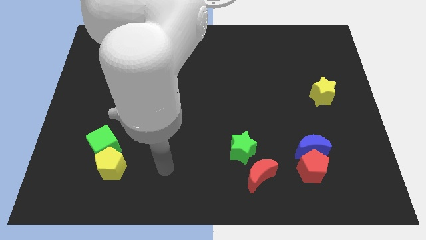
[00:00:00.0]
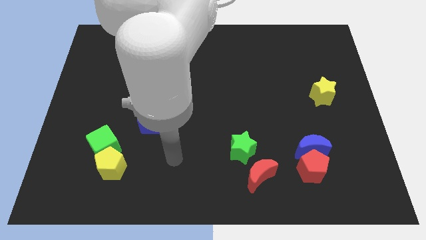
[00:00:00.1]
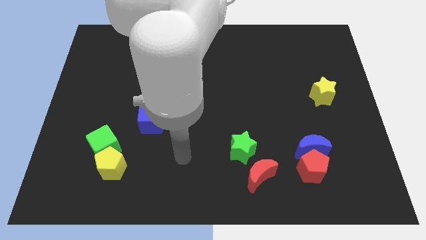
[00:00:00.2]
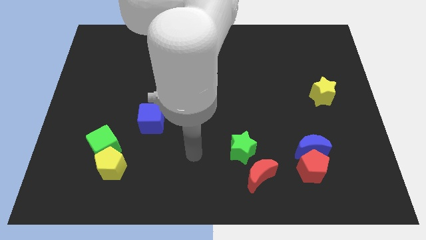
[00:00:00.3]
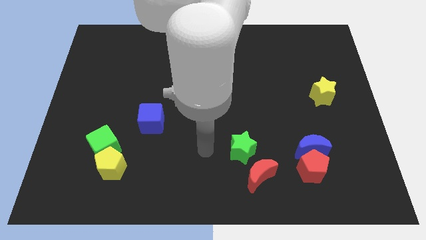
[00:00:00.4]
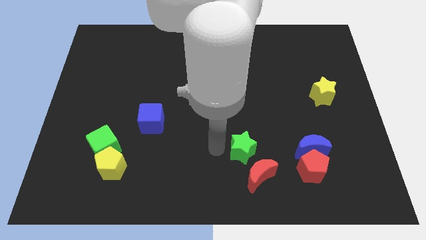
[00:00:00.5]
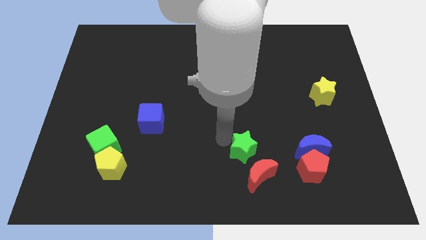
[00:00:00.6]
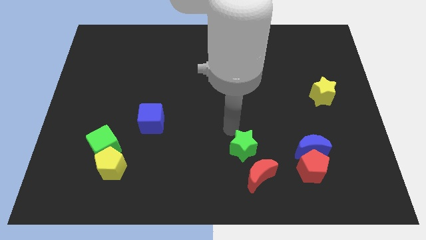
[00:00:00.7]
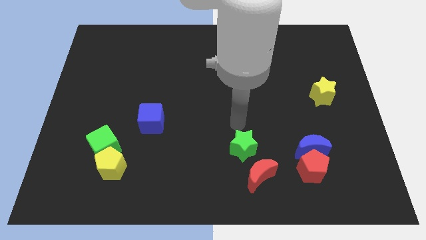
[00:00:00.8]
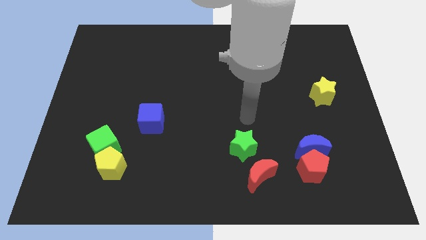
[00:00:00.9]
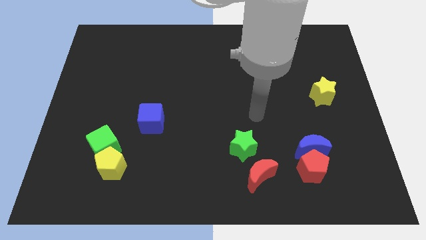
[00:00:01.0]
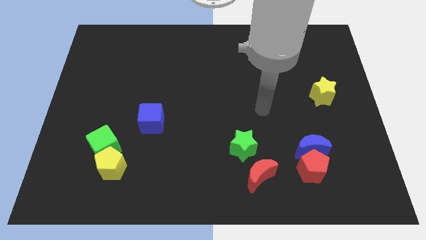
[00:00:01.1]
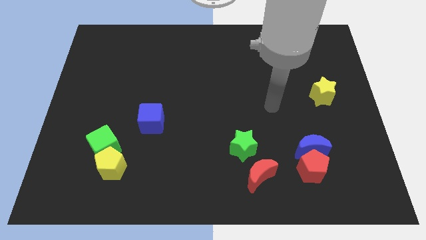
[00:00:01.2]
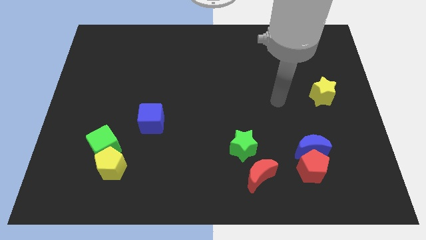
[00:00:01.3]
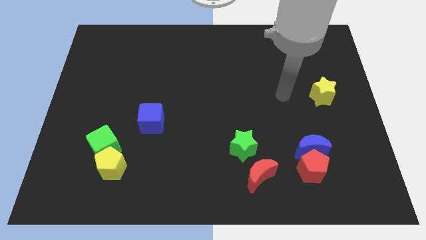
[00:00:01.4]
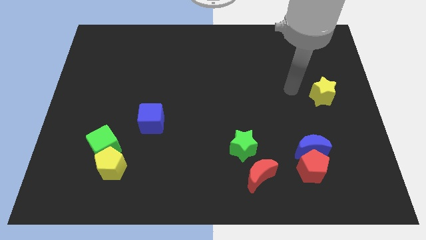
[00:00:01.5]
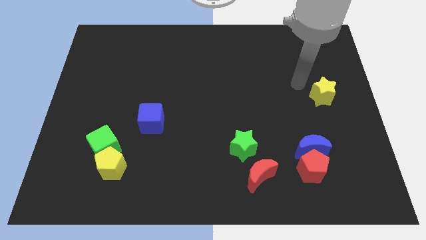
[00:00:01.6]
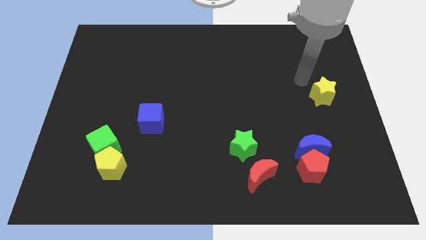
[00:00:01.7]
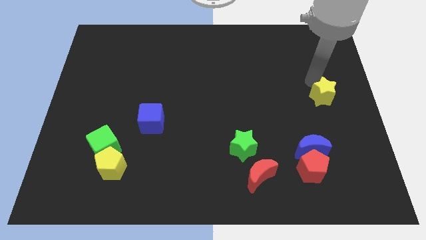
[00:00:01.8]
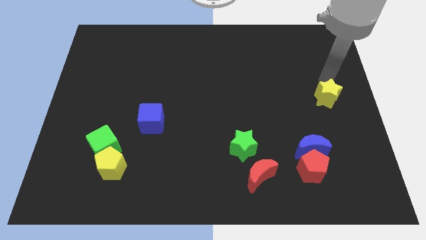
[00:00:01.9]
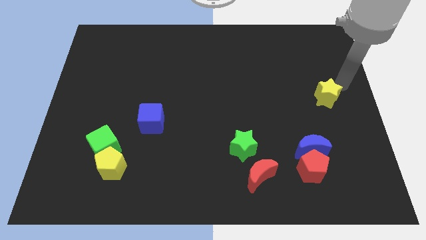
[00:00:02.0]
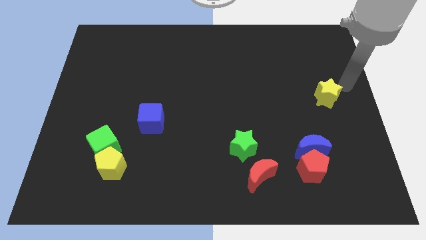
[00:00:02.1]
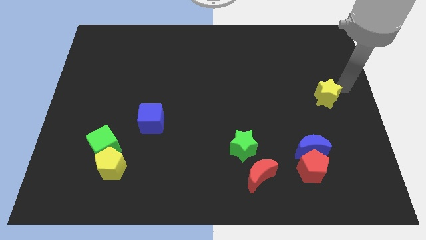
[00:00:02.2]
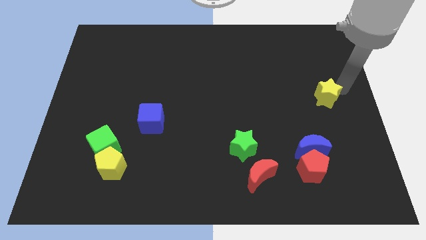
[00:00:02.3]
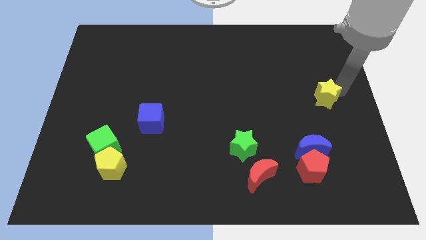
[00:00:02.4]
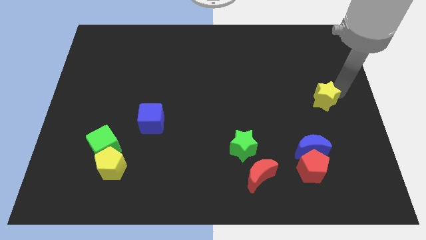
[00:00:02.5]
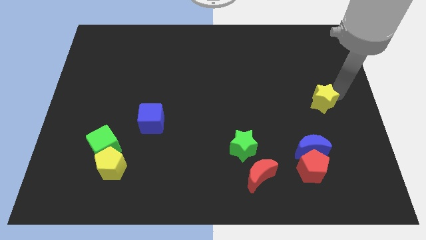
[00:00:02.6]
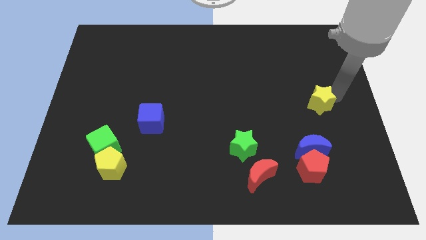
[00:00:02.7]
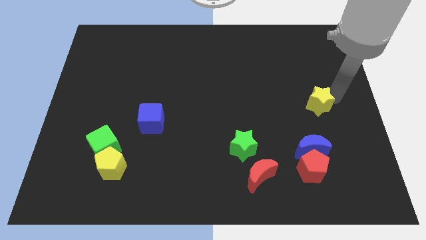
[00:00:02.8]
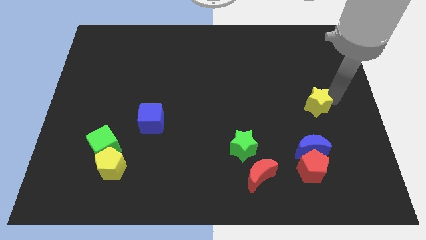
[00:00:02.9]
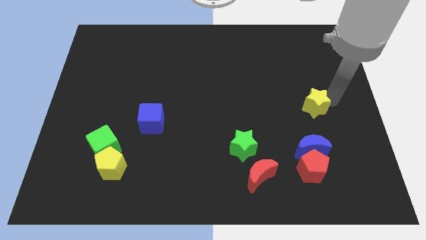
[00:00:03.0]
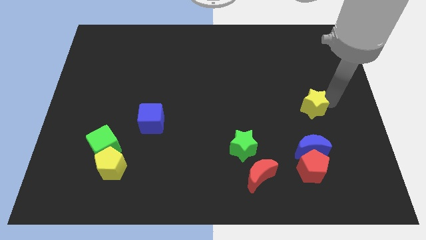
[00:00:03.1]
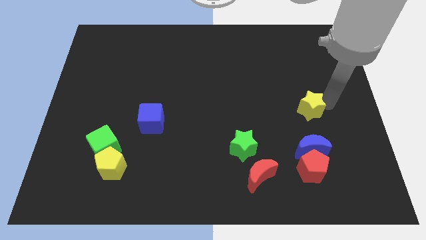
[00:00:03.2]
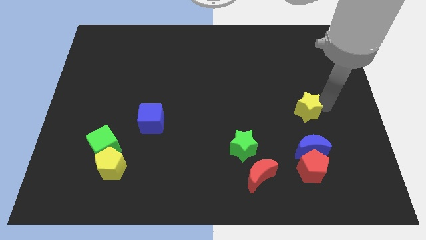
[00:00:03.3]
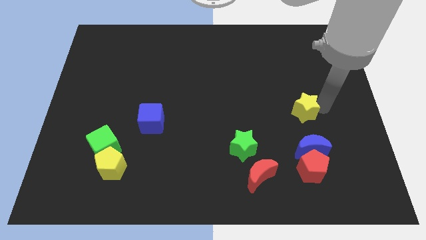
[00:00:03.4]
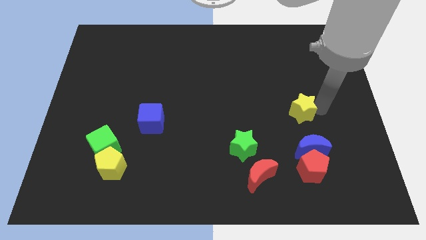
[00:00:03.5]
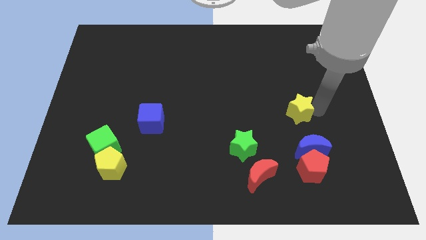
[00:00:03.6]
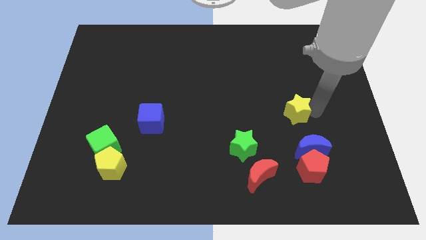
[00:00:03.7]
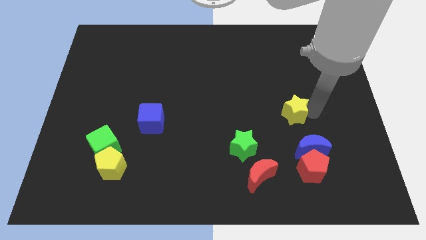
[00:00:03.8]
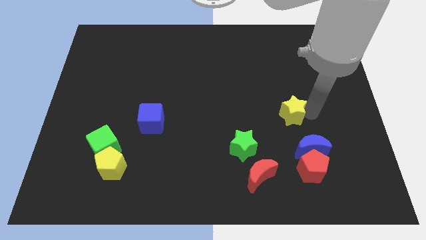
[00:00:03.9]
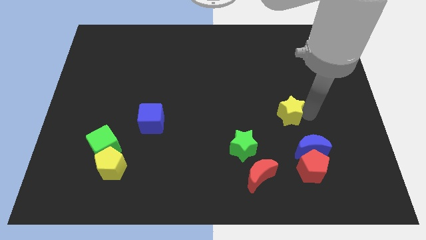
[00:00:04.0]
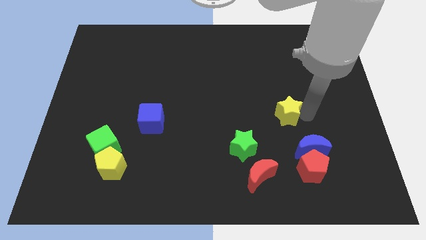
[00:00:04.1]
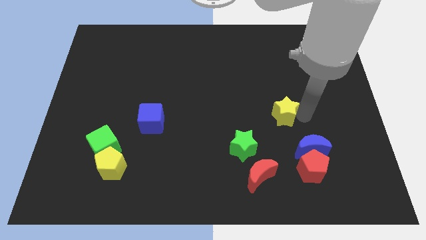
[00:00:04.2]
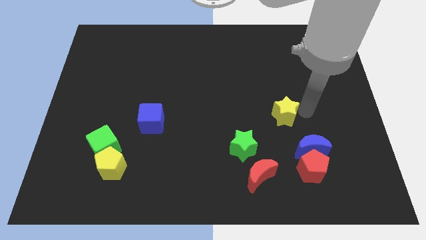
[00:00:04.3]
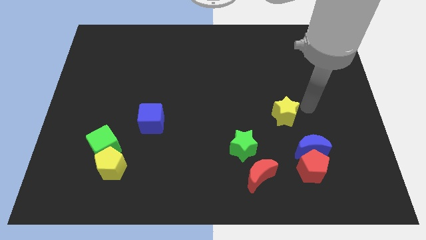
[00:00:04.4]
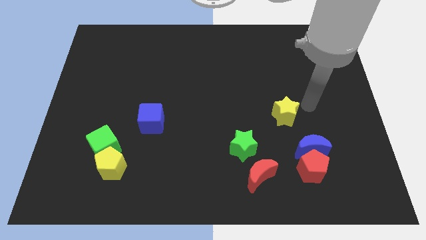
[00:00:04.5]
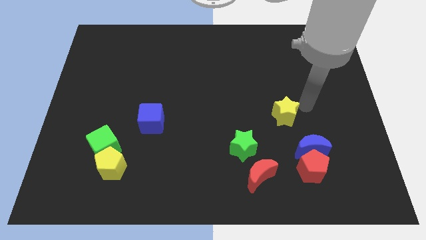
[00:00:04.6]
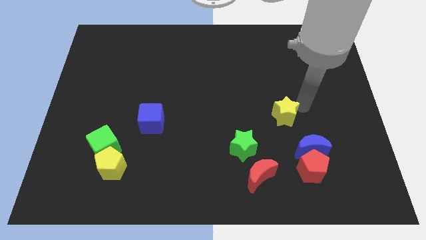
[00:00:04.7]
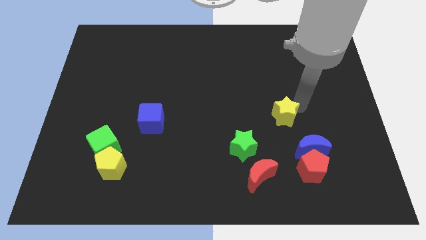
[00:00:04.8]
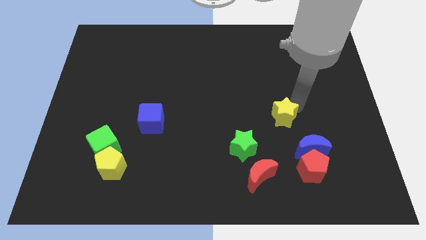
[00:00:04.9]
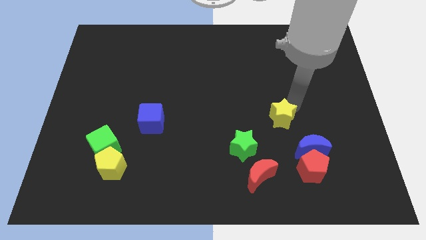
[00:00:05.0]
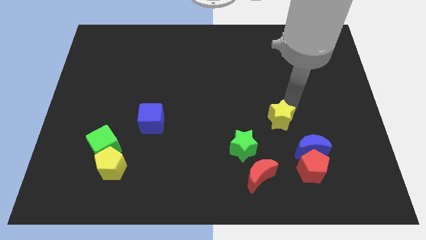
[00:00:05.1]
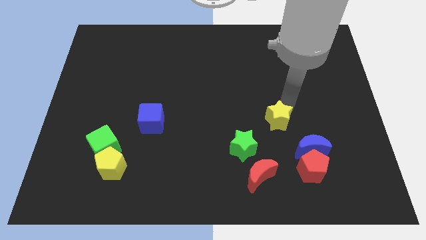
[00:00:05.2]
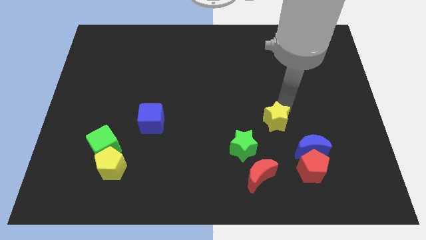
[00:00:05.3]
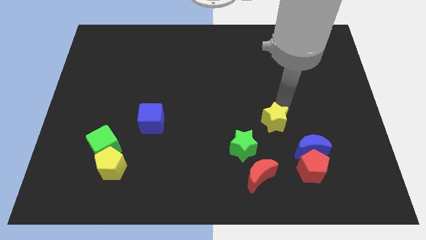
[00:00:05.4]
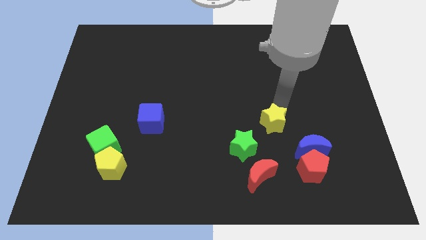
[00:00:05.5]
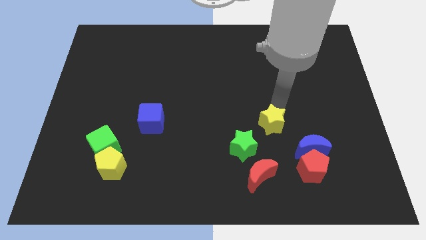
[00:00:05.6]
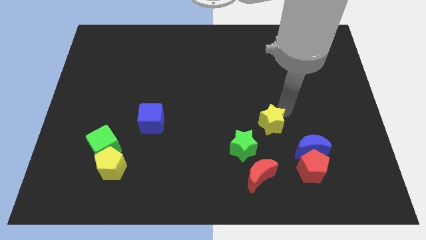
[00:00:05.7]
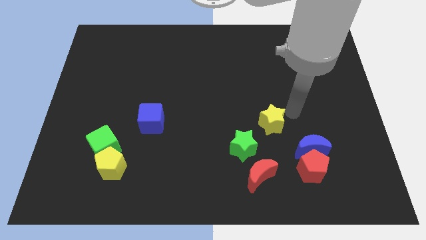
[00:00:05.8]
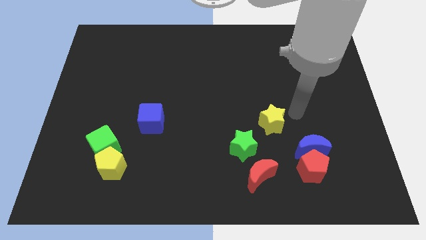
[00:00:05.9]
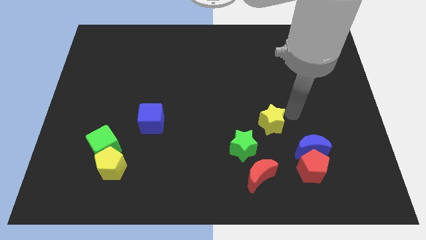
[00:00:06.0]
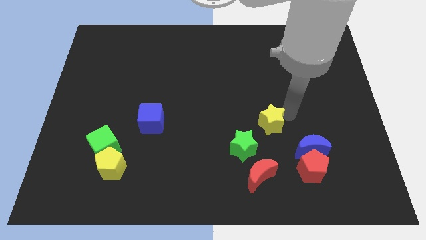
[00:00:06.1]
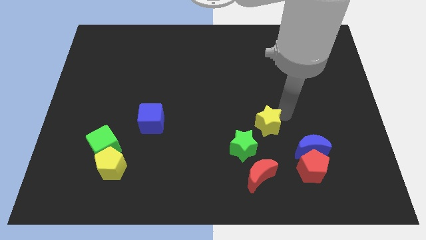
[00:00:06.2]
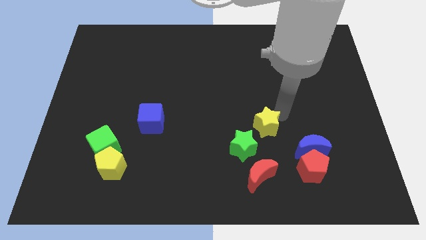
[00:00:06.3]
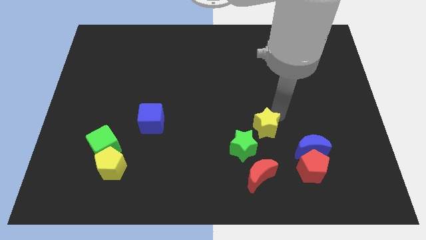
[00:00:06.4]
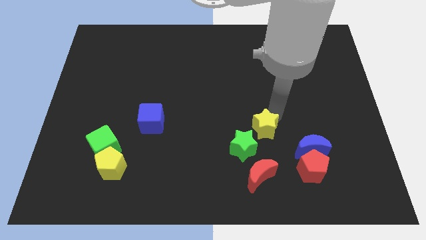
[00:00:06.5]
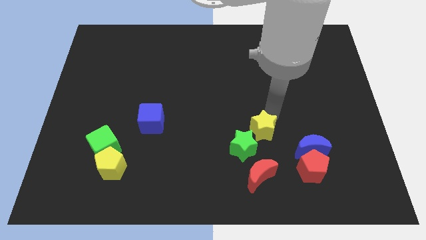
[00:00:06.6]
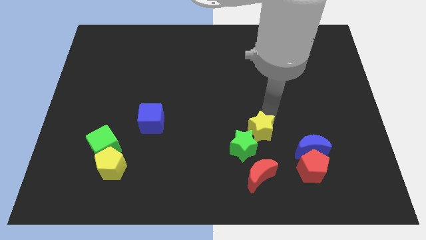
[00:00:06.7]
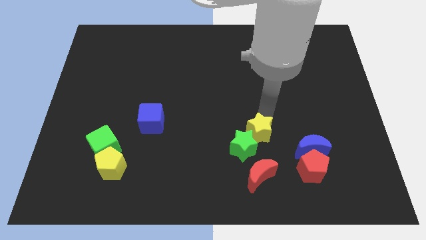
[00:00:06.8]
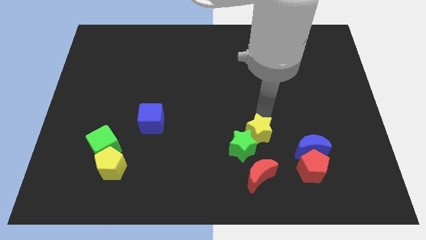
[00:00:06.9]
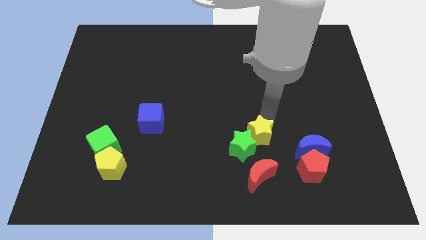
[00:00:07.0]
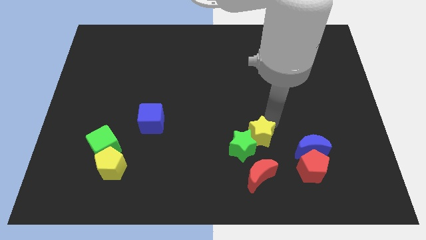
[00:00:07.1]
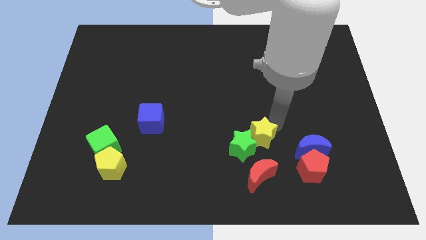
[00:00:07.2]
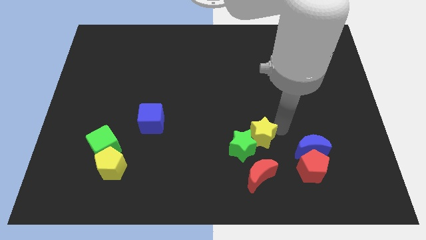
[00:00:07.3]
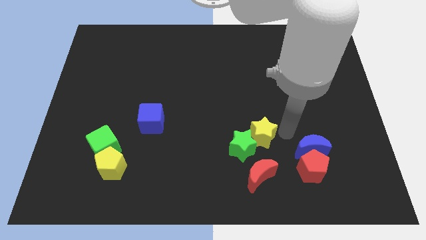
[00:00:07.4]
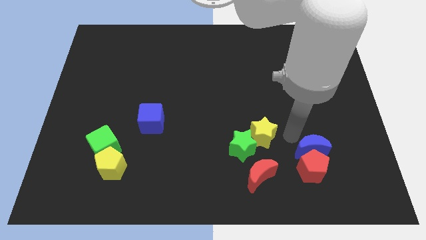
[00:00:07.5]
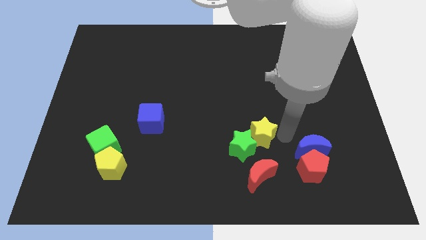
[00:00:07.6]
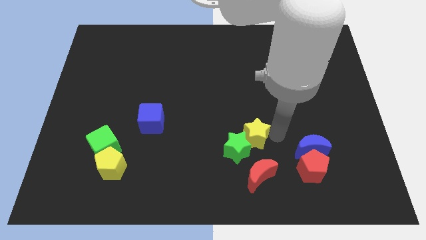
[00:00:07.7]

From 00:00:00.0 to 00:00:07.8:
move the yellow star diagonally down and left

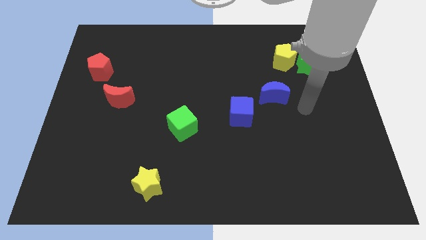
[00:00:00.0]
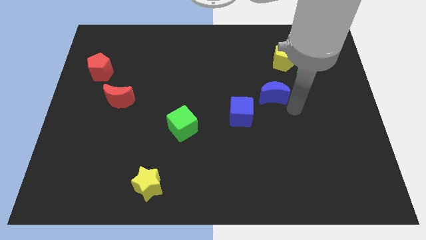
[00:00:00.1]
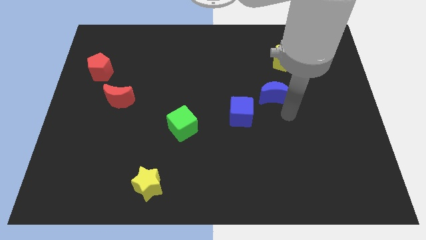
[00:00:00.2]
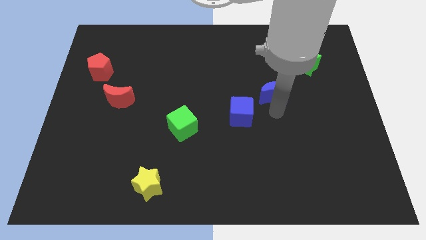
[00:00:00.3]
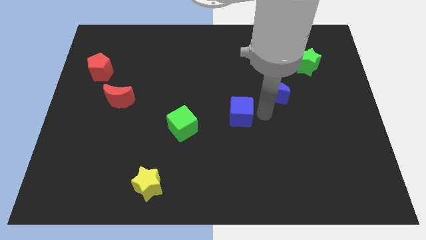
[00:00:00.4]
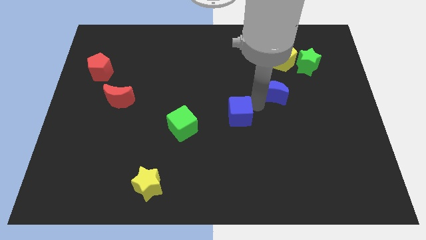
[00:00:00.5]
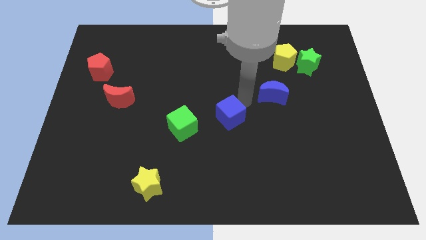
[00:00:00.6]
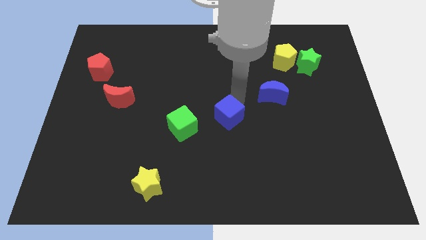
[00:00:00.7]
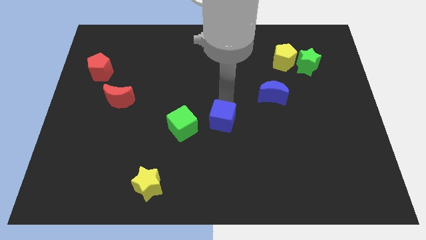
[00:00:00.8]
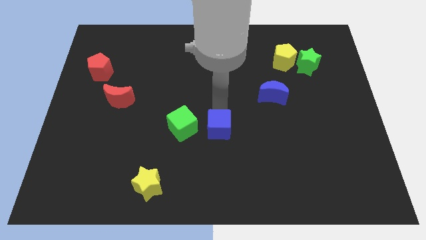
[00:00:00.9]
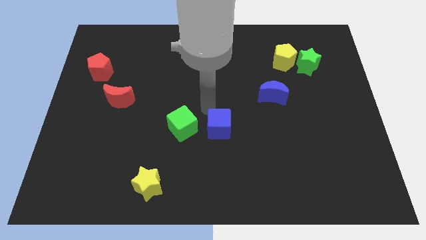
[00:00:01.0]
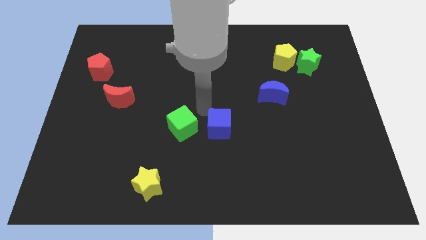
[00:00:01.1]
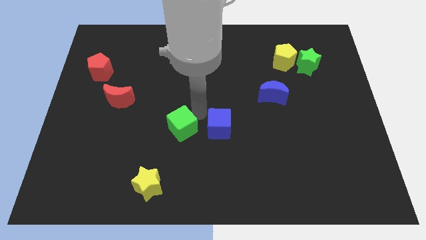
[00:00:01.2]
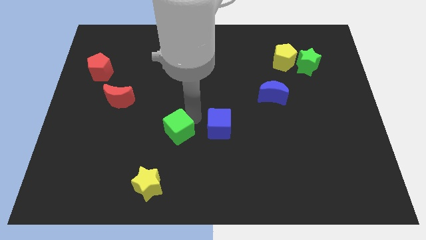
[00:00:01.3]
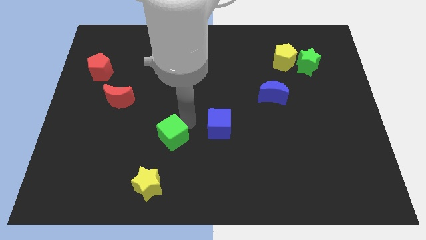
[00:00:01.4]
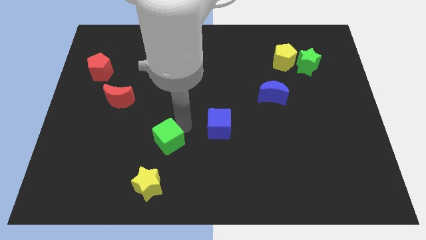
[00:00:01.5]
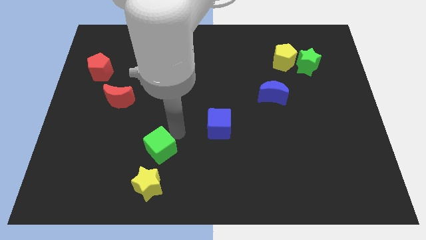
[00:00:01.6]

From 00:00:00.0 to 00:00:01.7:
slide the green cube somewhat downwards and then to the left
